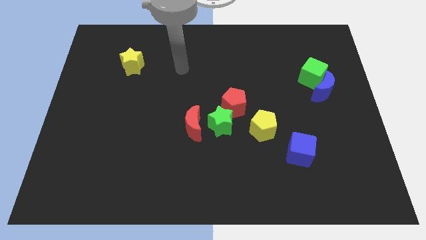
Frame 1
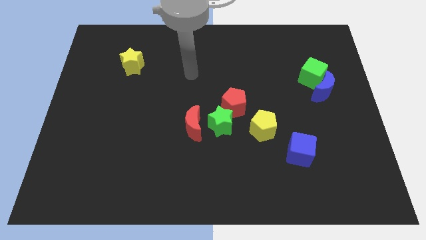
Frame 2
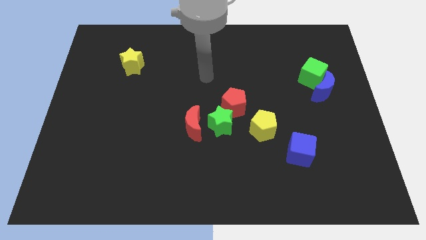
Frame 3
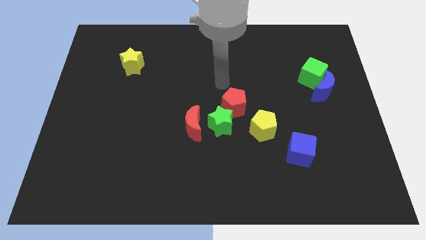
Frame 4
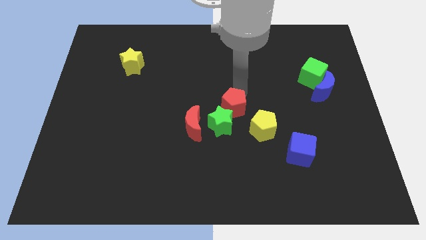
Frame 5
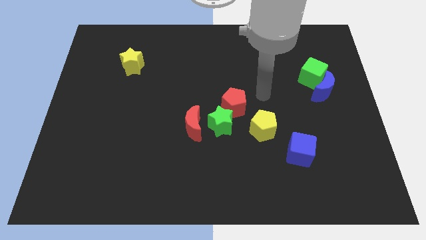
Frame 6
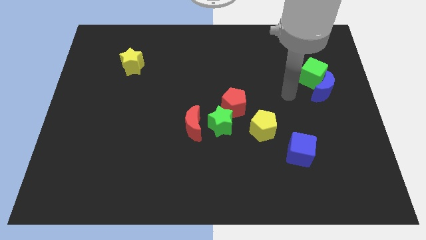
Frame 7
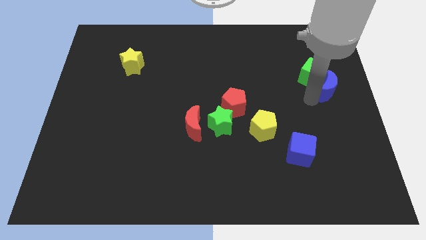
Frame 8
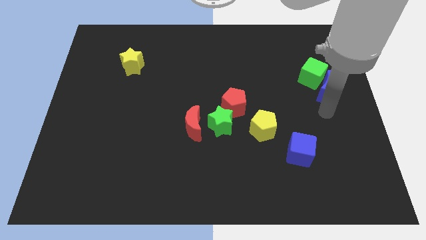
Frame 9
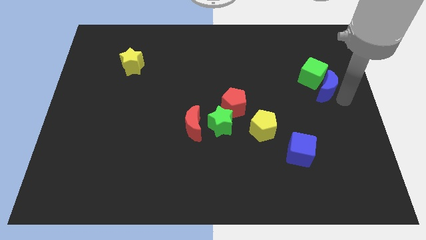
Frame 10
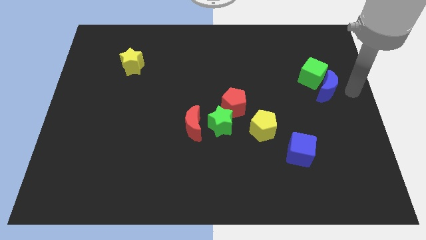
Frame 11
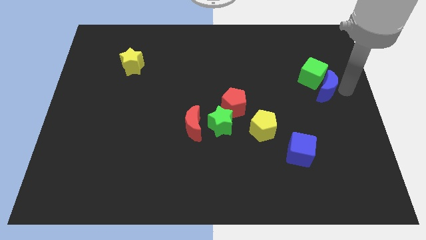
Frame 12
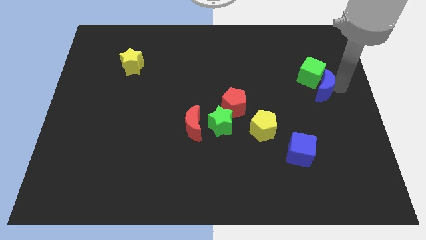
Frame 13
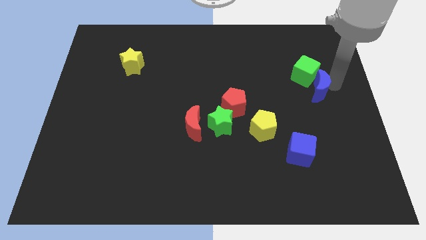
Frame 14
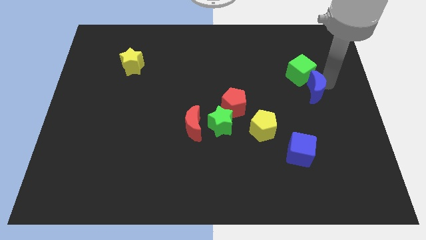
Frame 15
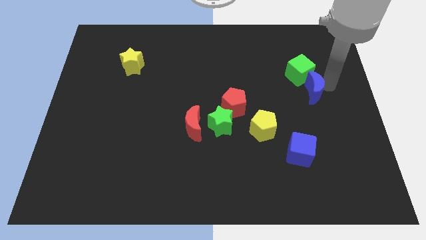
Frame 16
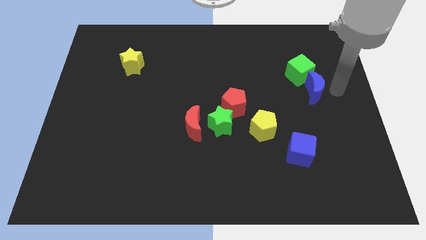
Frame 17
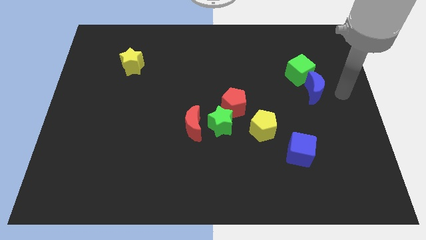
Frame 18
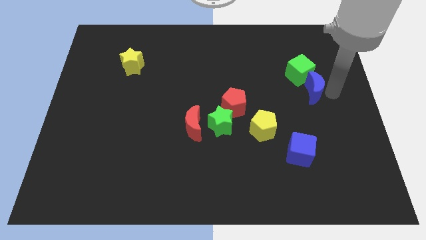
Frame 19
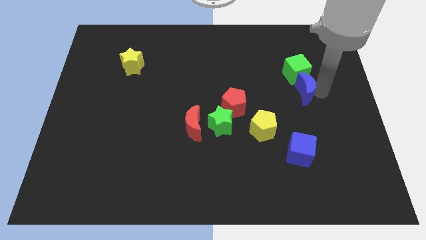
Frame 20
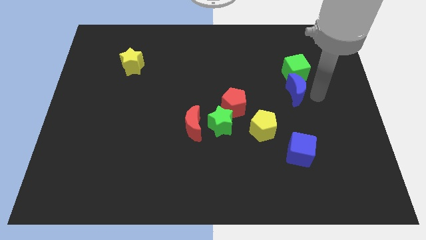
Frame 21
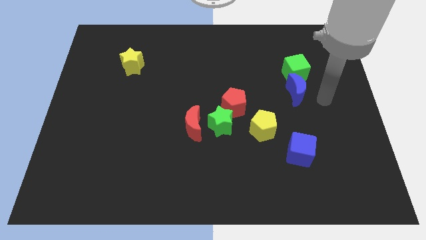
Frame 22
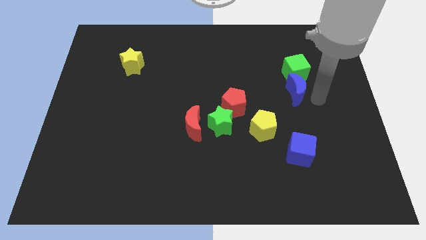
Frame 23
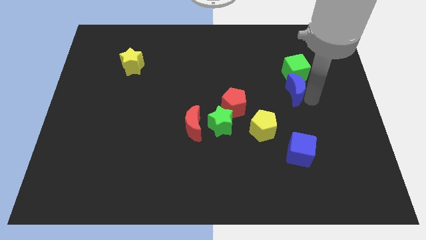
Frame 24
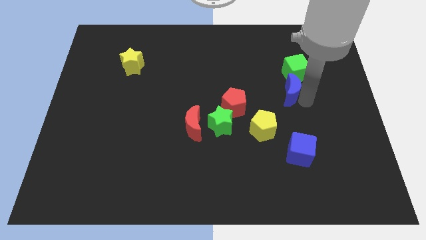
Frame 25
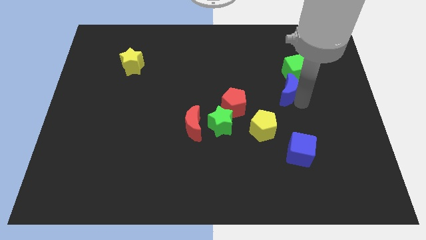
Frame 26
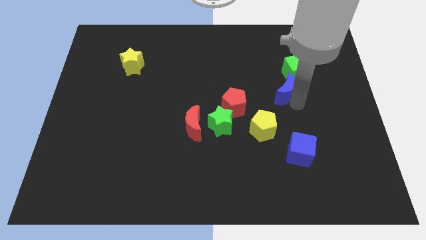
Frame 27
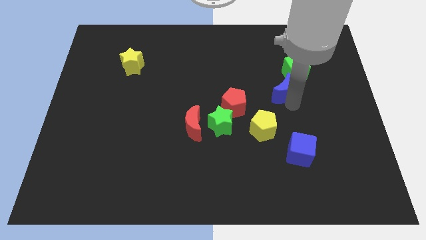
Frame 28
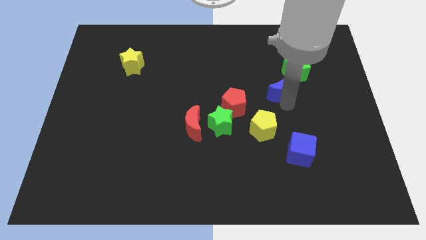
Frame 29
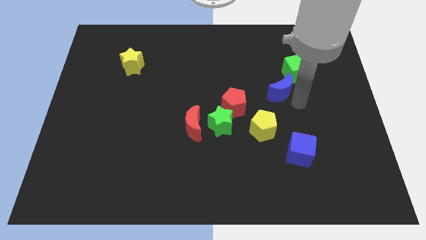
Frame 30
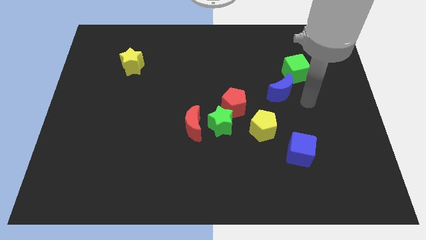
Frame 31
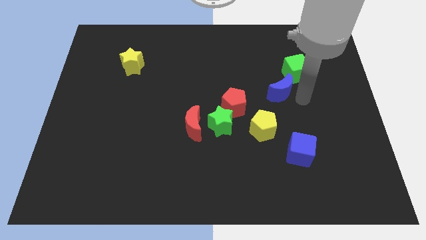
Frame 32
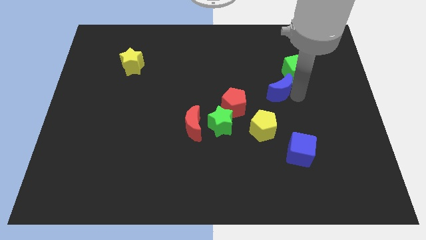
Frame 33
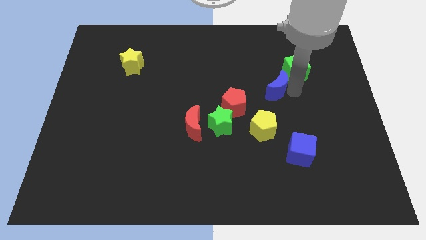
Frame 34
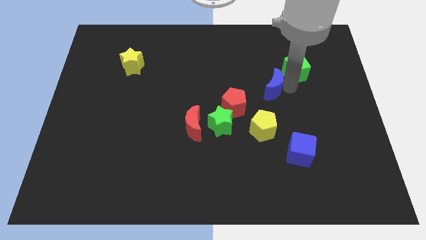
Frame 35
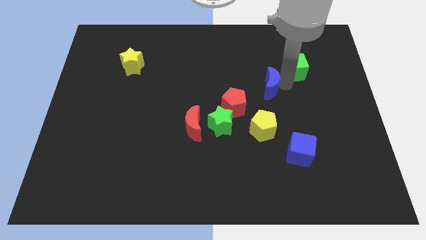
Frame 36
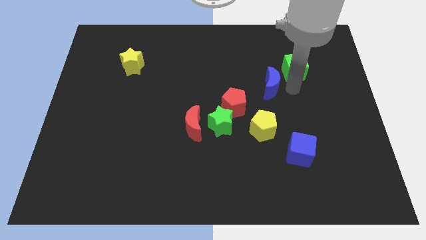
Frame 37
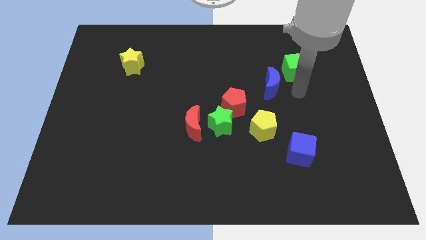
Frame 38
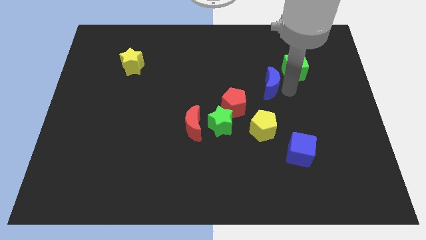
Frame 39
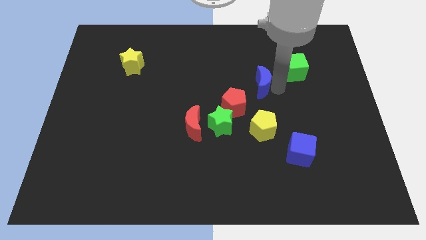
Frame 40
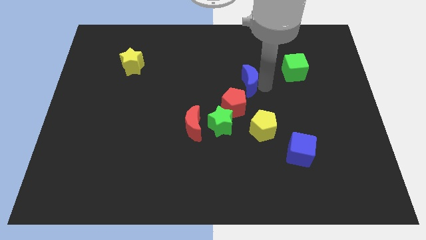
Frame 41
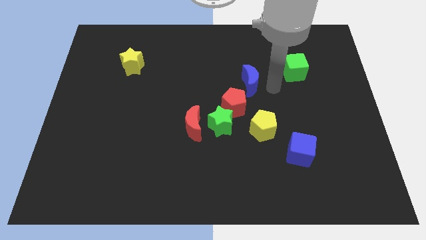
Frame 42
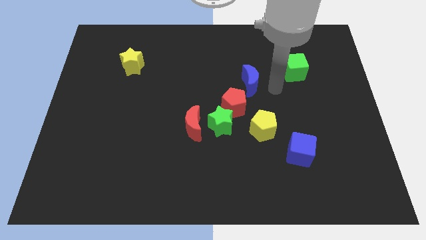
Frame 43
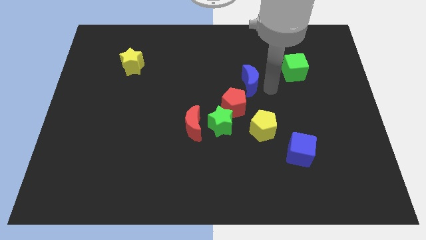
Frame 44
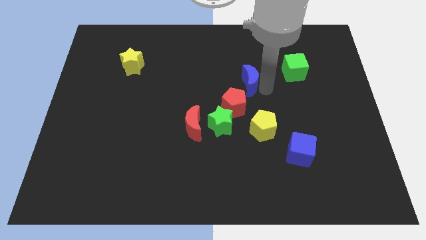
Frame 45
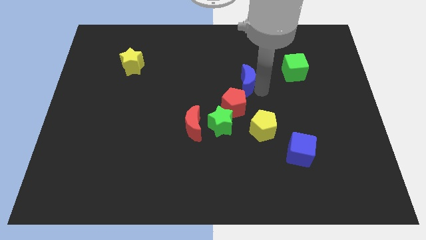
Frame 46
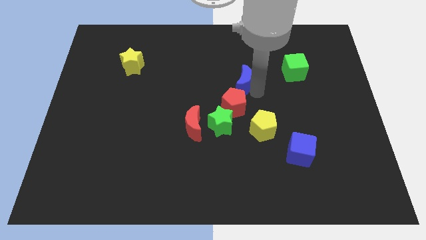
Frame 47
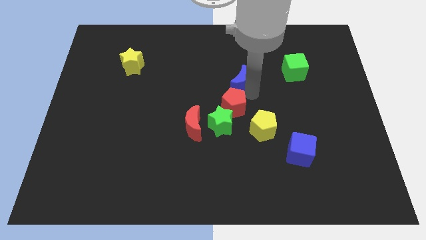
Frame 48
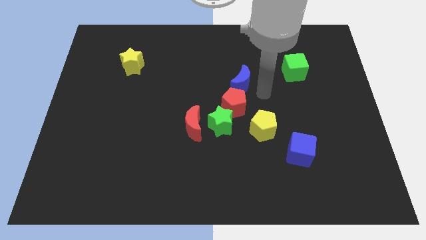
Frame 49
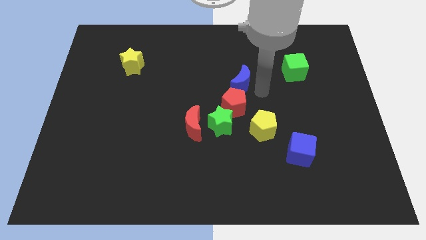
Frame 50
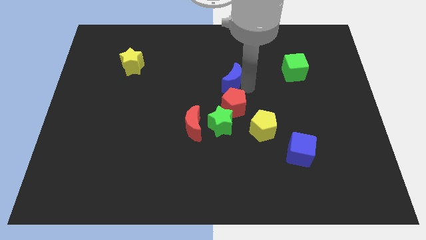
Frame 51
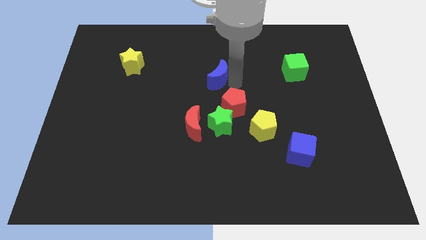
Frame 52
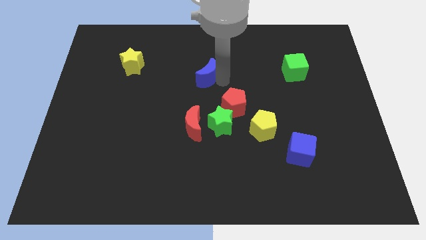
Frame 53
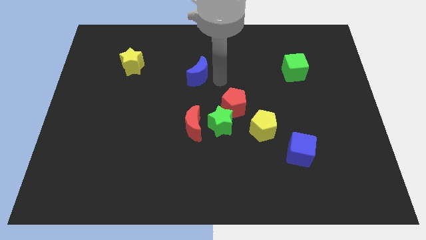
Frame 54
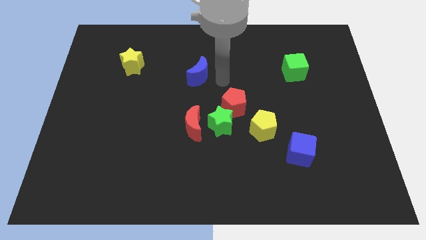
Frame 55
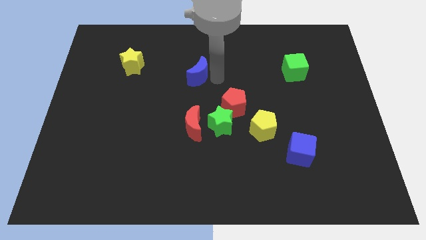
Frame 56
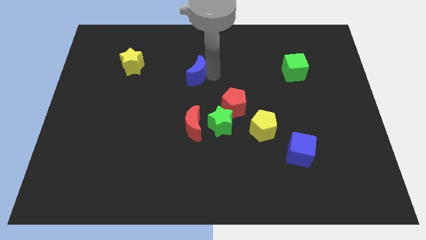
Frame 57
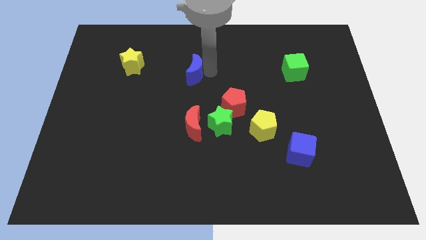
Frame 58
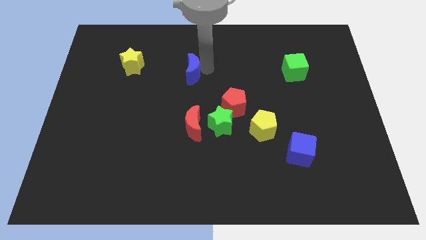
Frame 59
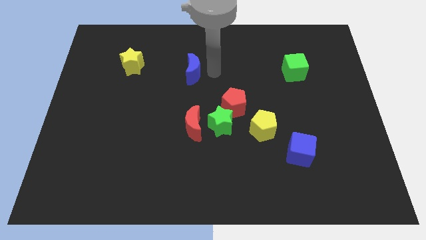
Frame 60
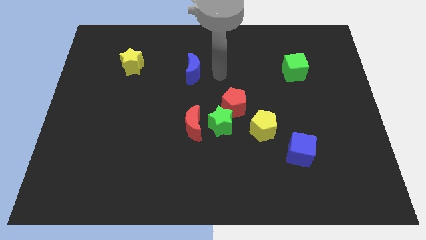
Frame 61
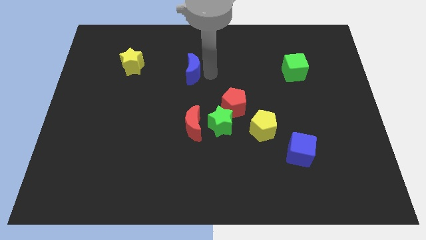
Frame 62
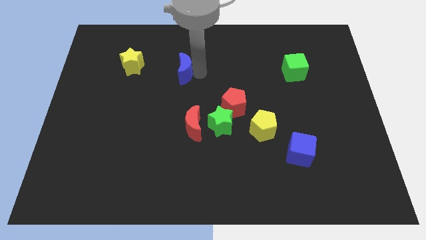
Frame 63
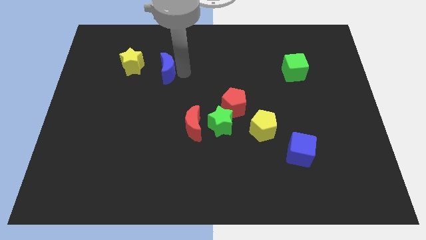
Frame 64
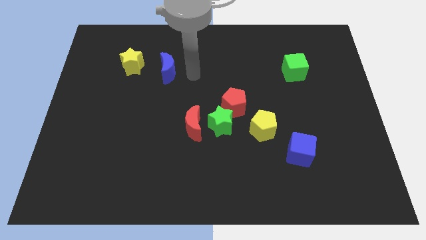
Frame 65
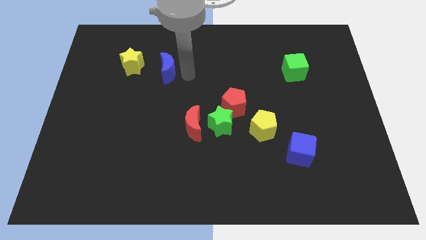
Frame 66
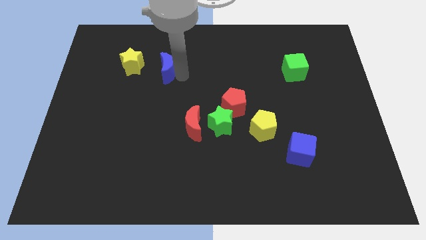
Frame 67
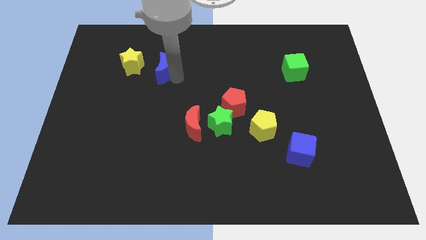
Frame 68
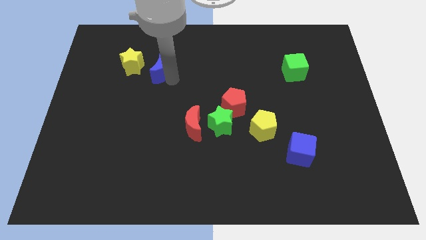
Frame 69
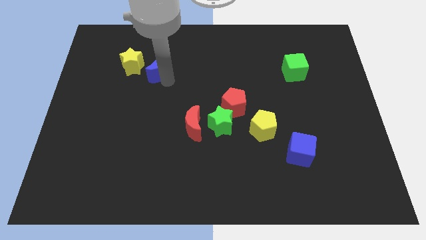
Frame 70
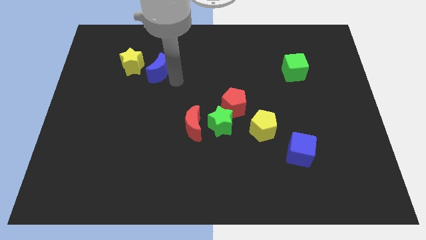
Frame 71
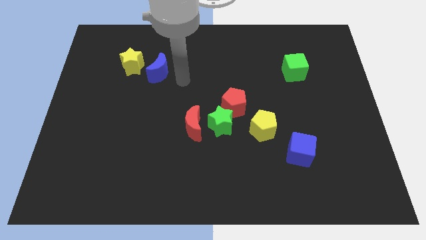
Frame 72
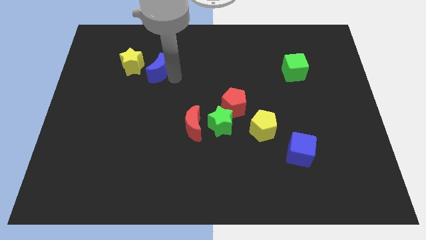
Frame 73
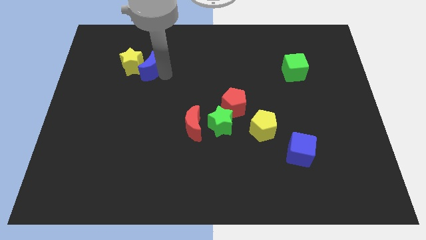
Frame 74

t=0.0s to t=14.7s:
push the blue moon towards the yellow star

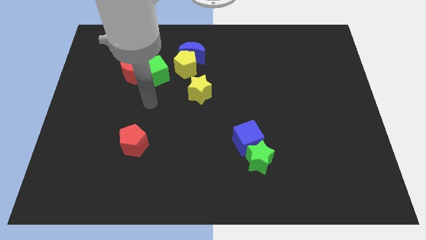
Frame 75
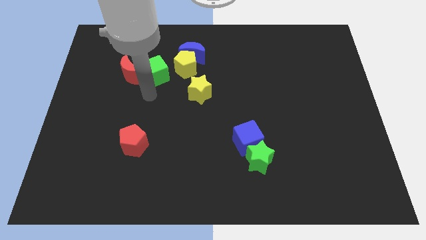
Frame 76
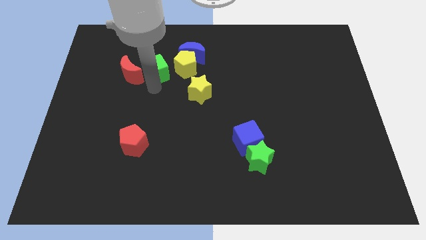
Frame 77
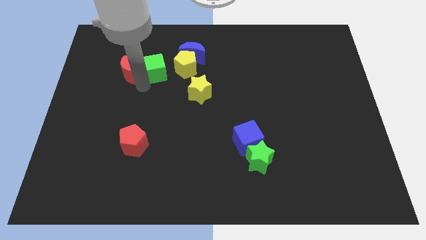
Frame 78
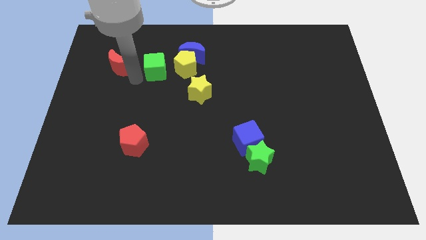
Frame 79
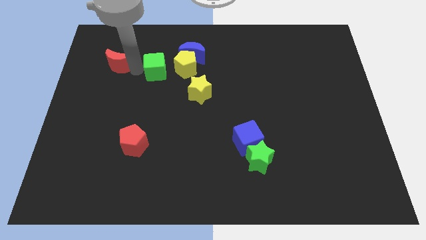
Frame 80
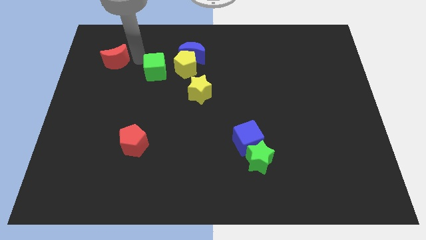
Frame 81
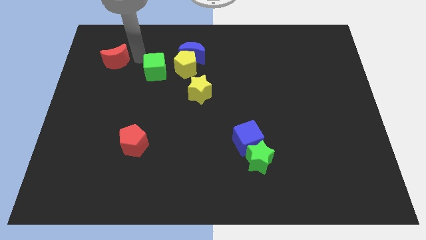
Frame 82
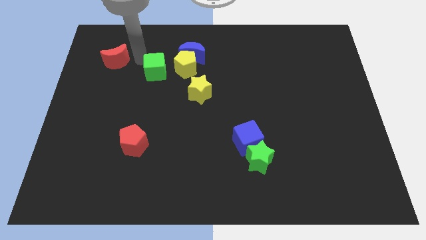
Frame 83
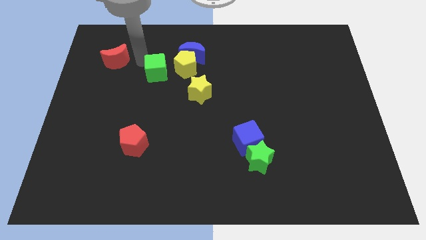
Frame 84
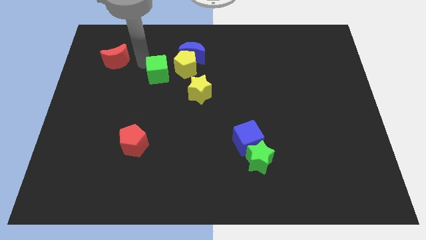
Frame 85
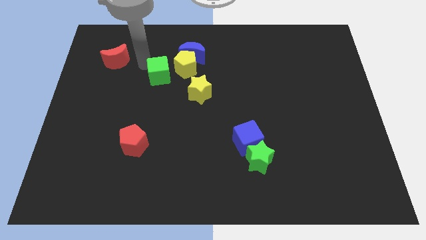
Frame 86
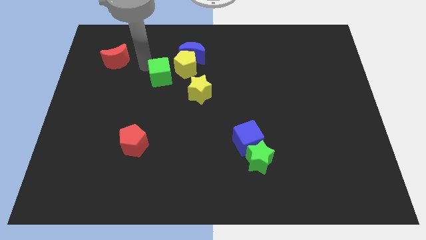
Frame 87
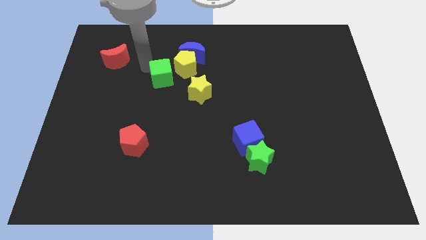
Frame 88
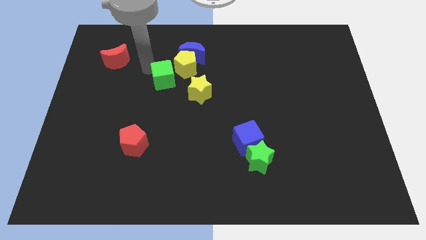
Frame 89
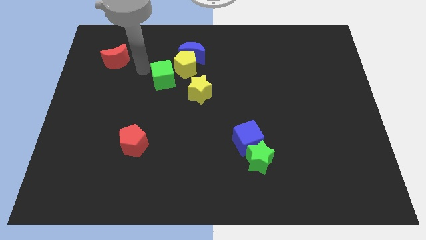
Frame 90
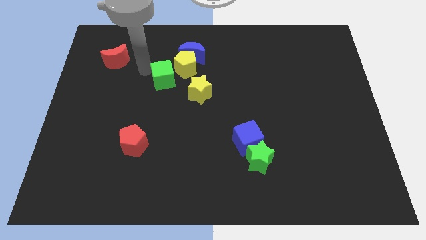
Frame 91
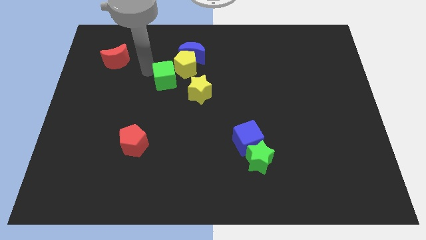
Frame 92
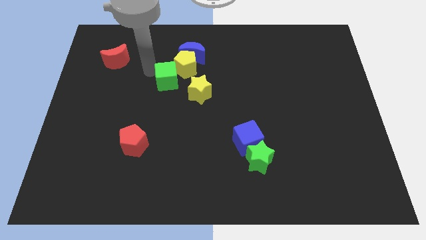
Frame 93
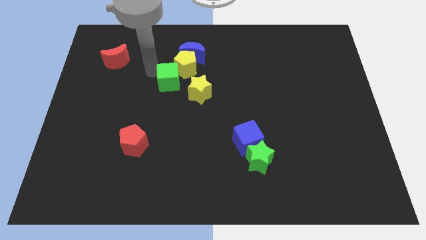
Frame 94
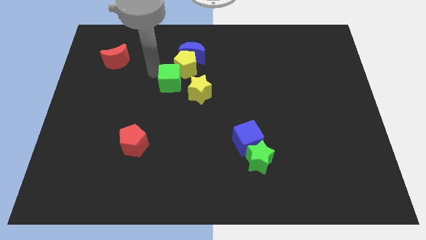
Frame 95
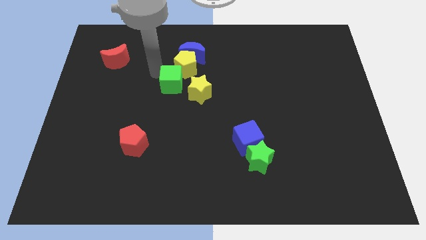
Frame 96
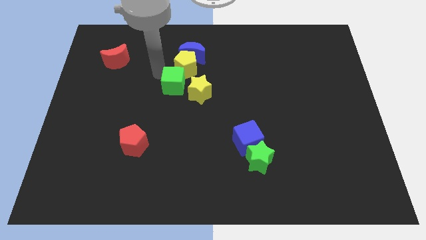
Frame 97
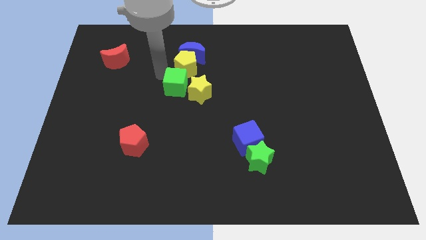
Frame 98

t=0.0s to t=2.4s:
move the green cube towards the yellow star
